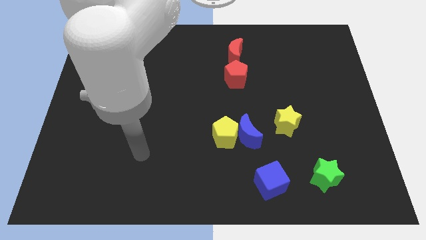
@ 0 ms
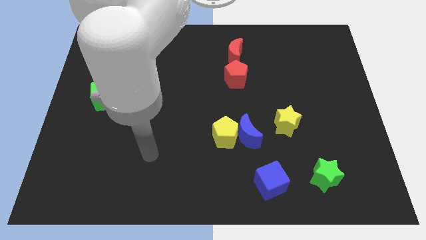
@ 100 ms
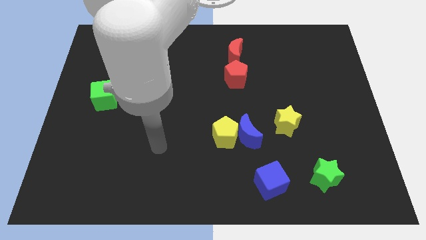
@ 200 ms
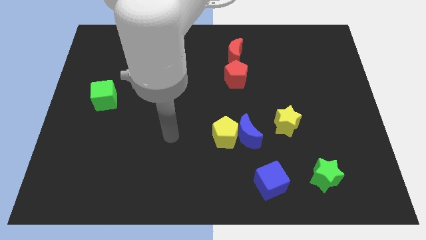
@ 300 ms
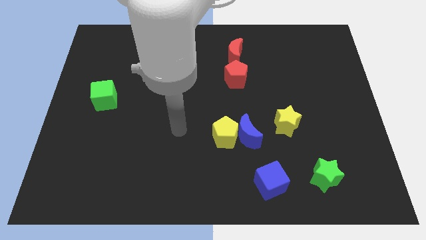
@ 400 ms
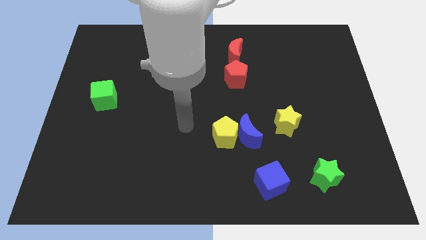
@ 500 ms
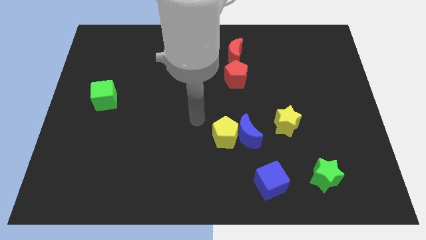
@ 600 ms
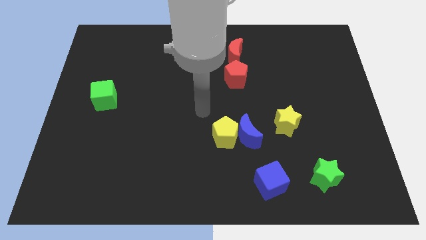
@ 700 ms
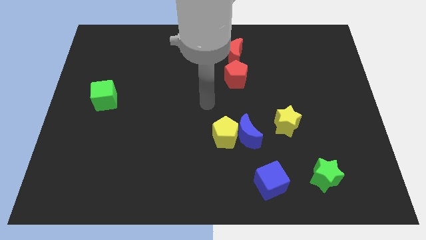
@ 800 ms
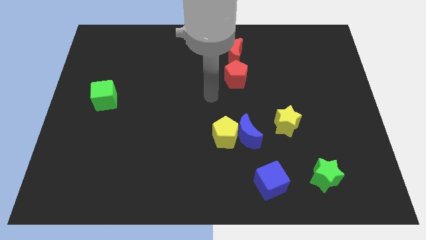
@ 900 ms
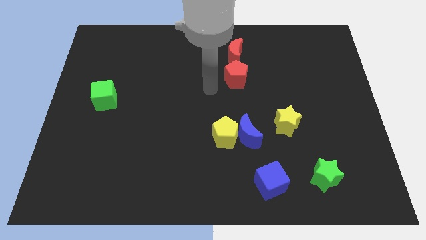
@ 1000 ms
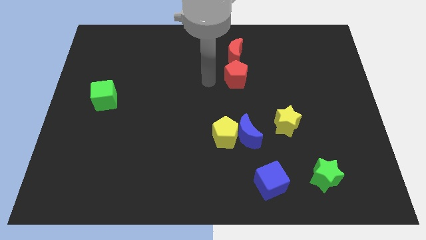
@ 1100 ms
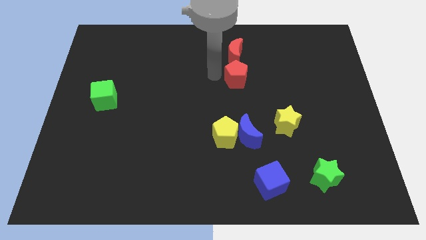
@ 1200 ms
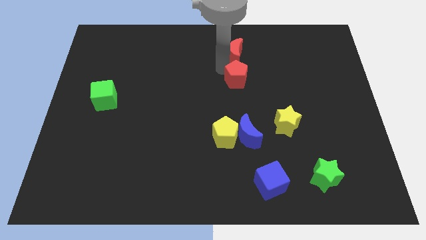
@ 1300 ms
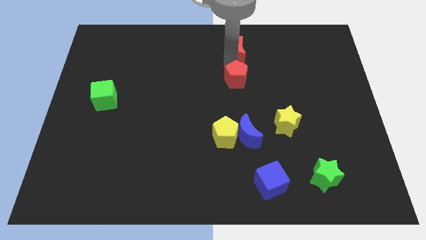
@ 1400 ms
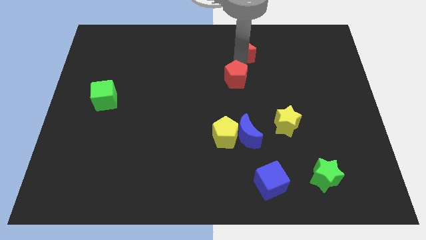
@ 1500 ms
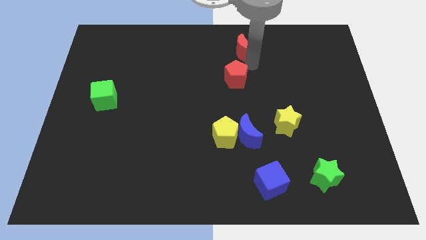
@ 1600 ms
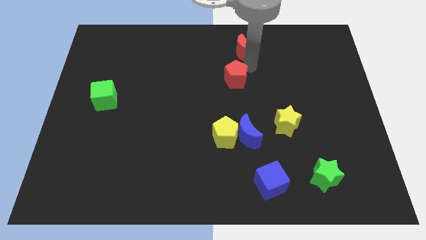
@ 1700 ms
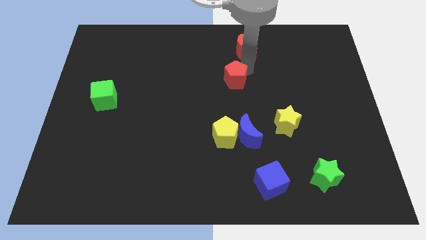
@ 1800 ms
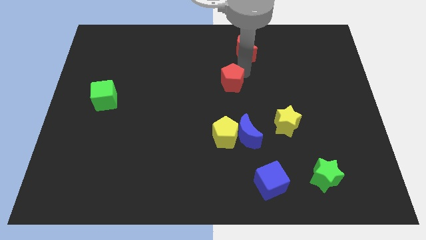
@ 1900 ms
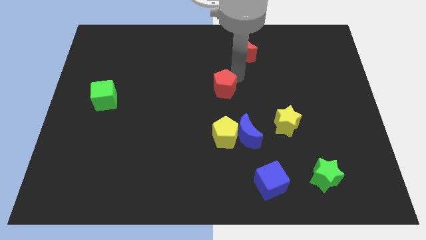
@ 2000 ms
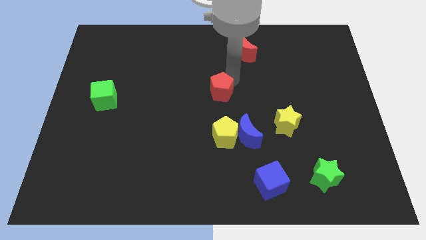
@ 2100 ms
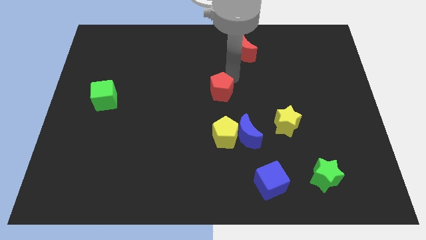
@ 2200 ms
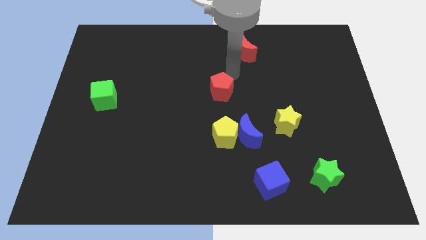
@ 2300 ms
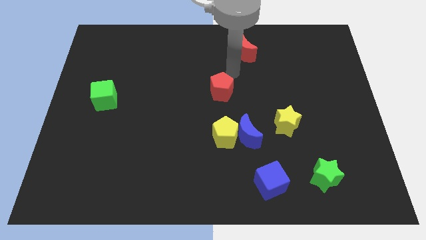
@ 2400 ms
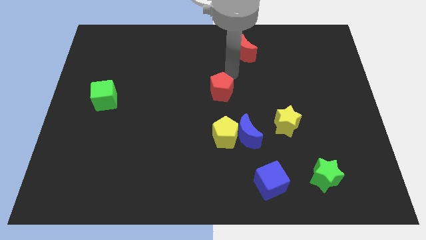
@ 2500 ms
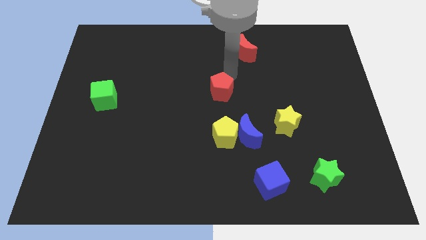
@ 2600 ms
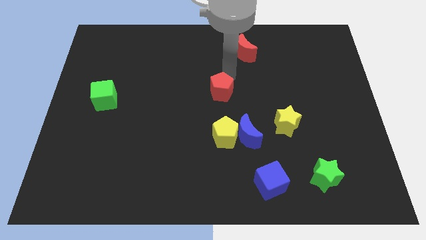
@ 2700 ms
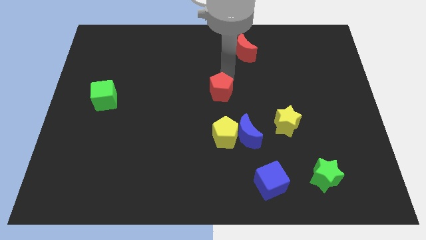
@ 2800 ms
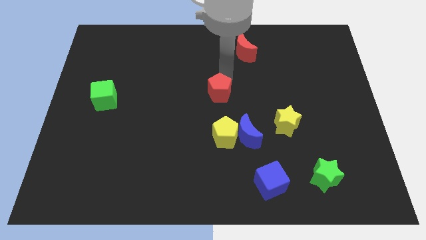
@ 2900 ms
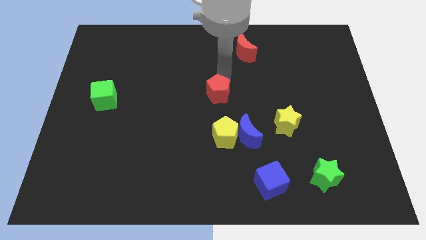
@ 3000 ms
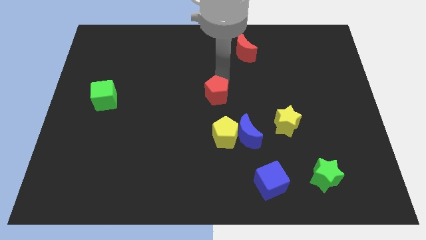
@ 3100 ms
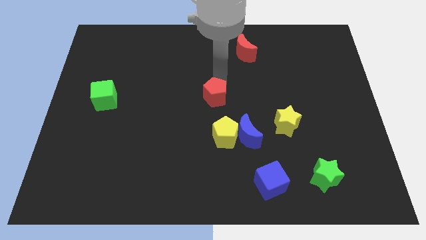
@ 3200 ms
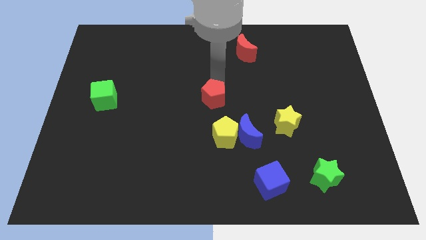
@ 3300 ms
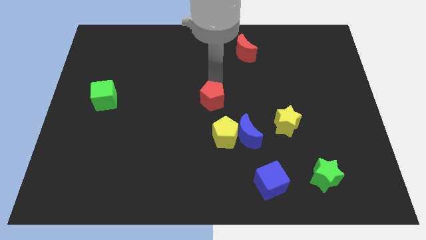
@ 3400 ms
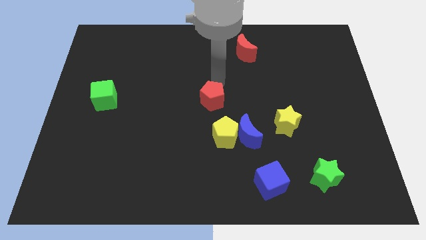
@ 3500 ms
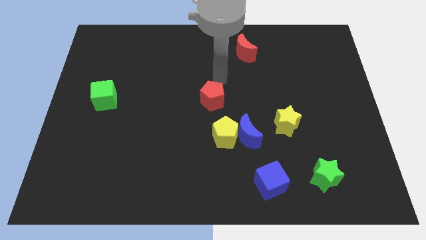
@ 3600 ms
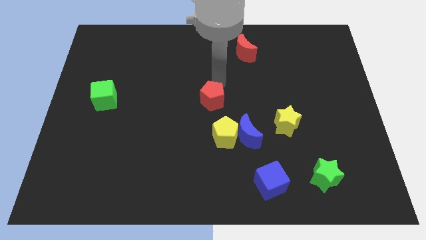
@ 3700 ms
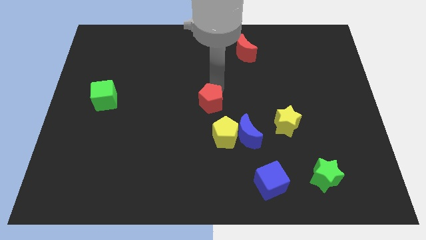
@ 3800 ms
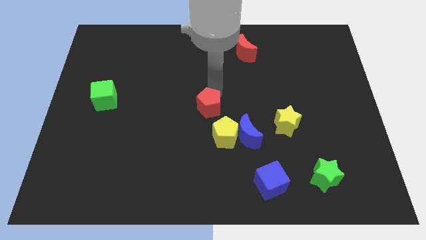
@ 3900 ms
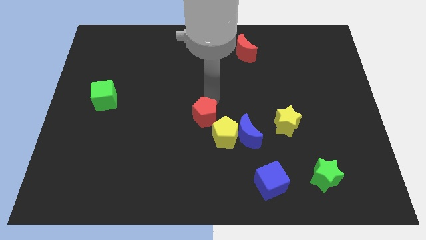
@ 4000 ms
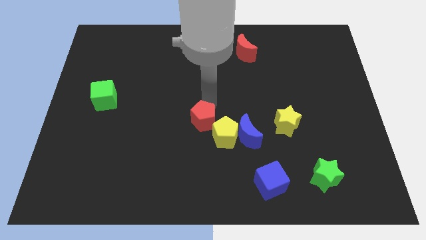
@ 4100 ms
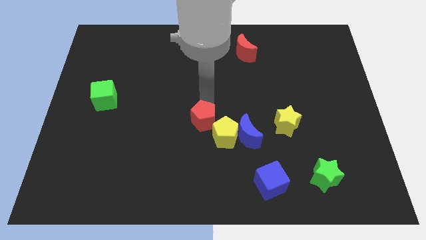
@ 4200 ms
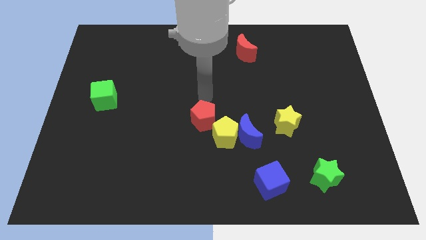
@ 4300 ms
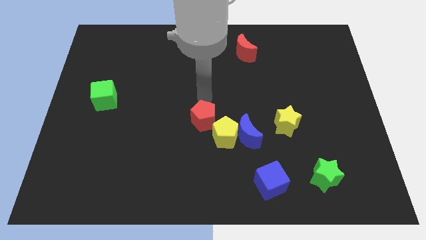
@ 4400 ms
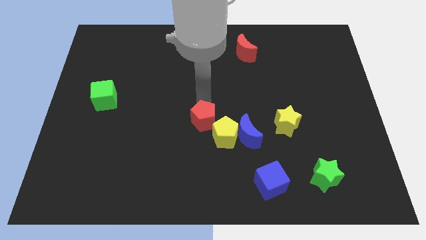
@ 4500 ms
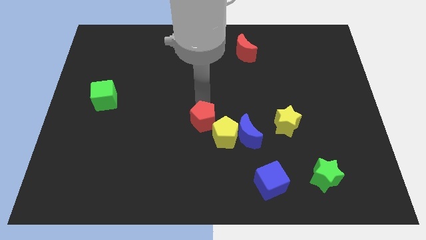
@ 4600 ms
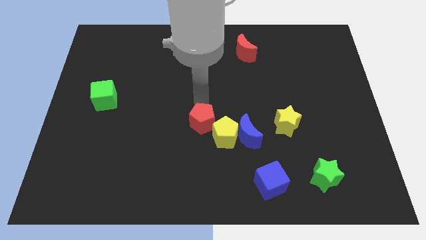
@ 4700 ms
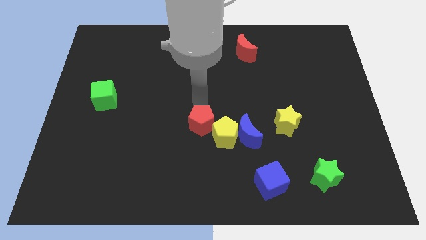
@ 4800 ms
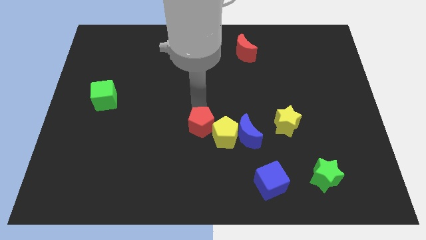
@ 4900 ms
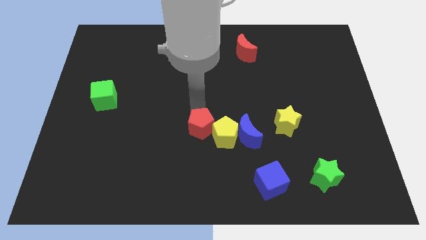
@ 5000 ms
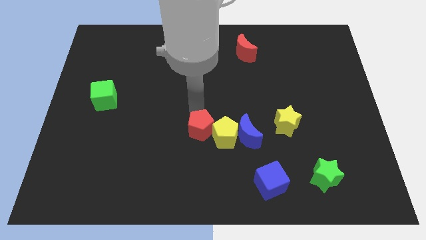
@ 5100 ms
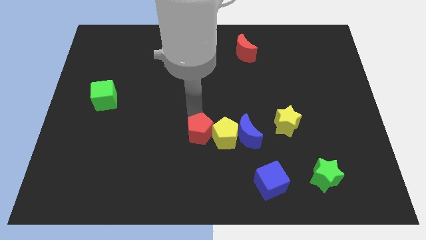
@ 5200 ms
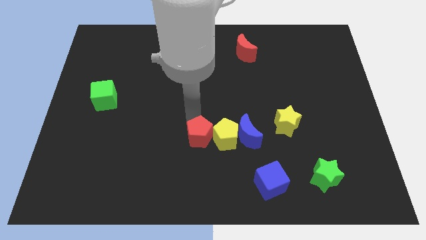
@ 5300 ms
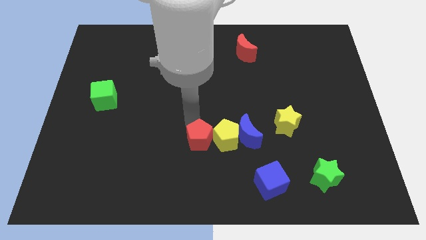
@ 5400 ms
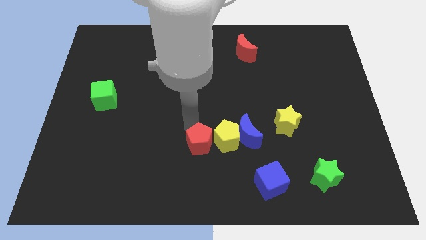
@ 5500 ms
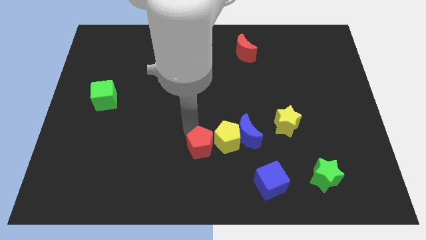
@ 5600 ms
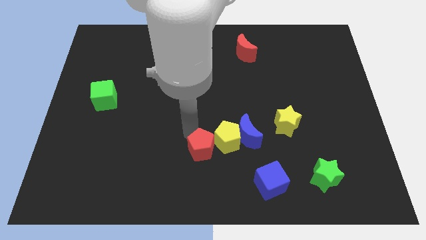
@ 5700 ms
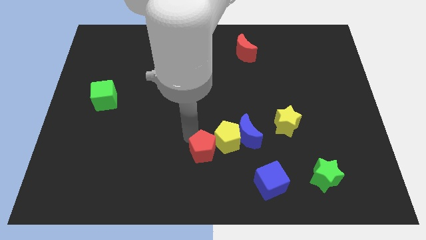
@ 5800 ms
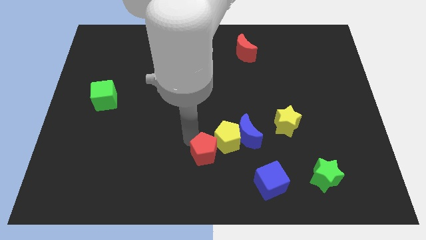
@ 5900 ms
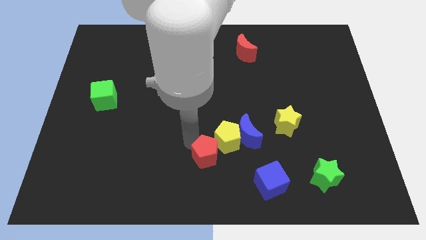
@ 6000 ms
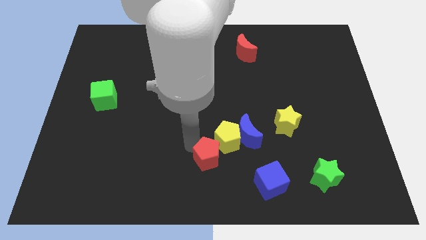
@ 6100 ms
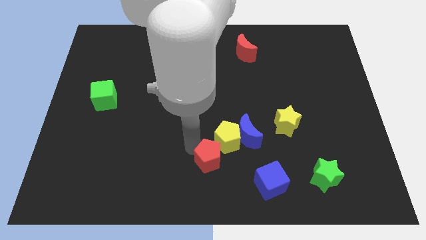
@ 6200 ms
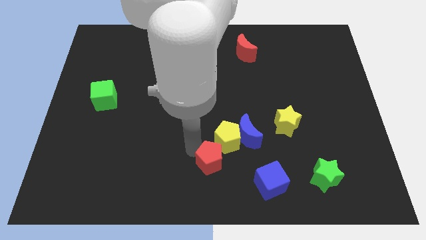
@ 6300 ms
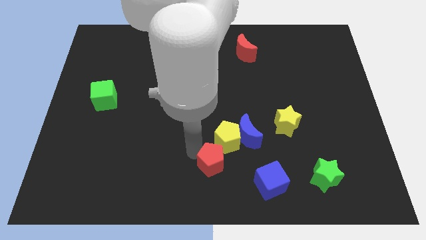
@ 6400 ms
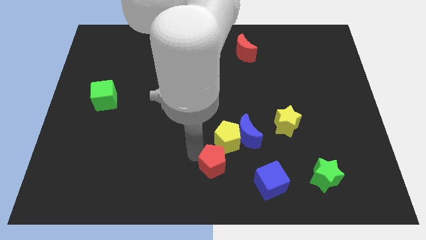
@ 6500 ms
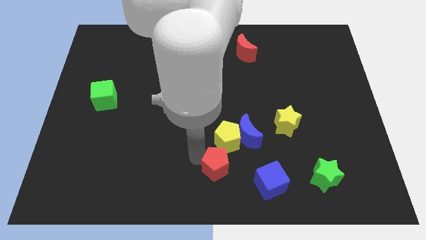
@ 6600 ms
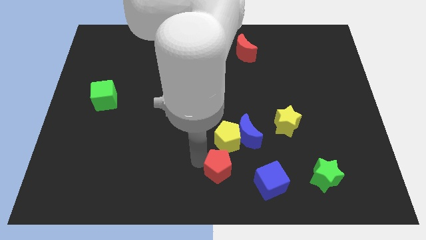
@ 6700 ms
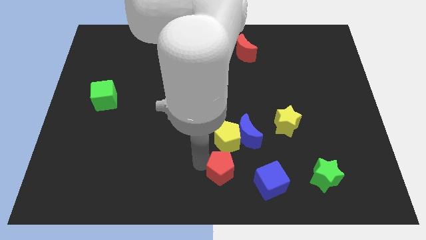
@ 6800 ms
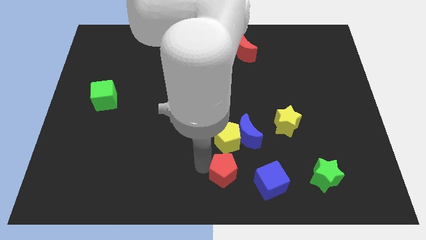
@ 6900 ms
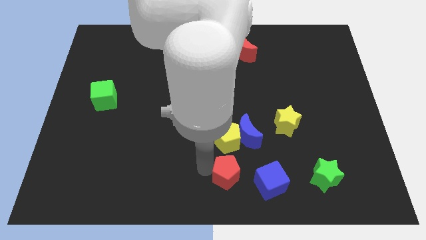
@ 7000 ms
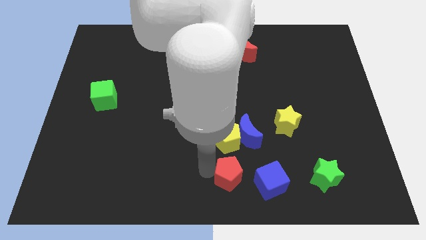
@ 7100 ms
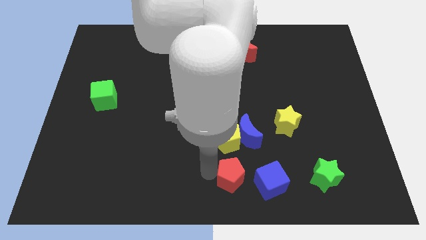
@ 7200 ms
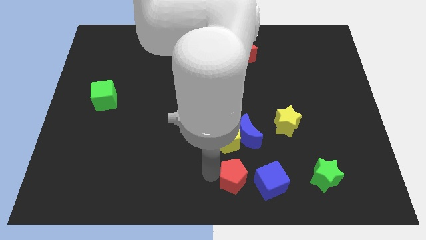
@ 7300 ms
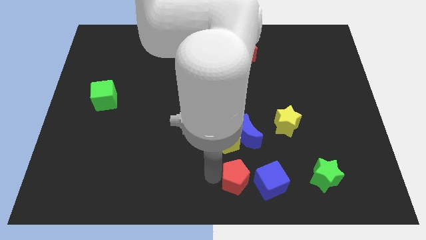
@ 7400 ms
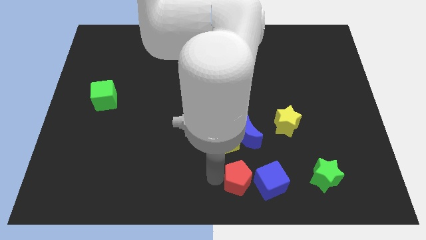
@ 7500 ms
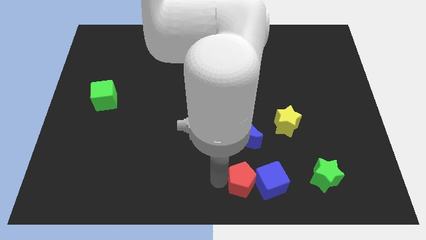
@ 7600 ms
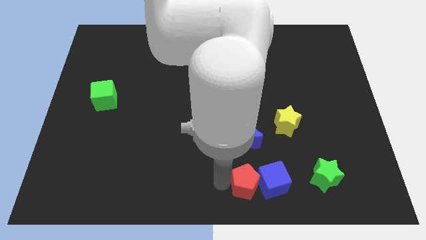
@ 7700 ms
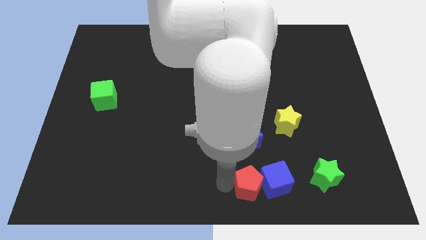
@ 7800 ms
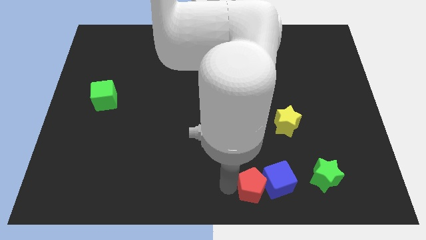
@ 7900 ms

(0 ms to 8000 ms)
move the red pentagon to the left side of the green star
